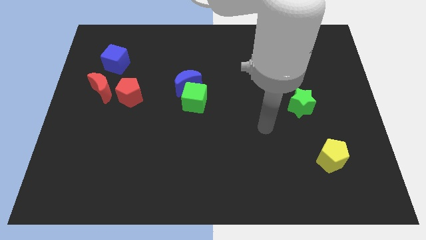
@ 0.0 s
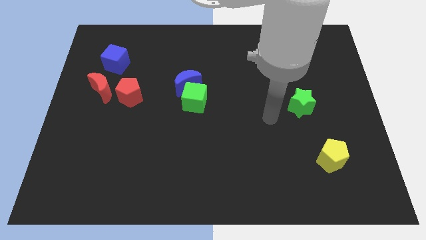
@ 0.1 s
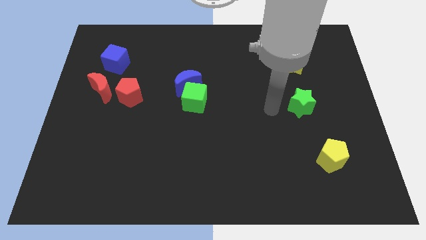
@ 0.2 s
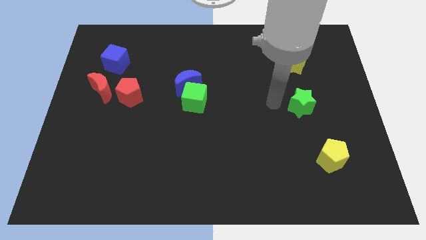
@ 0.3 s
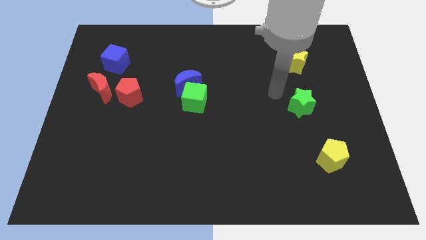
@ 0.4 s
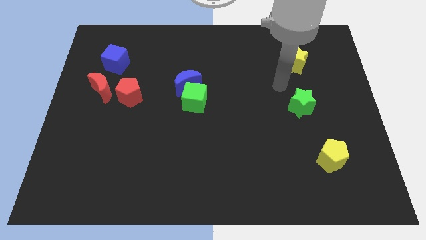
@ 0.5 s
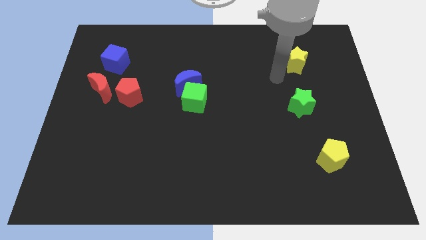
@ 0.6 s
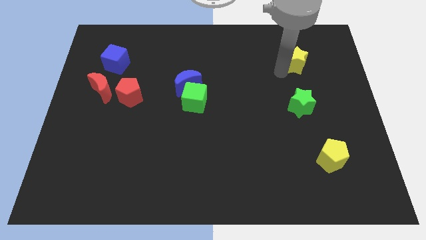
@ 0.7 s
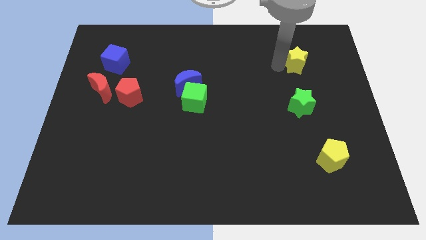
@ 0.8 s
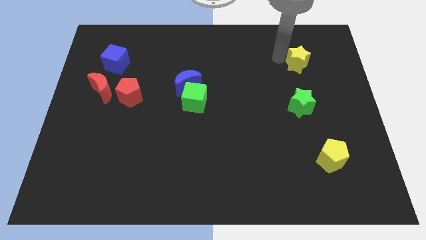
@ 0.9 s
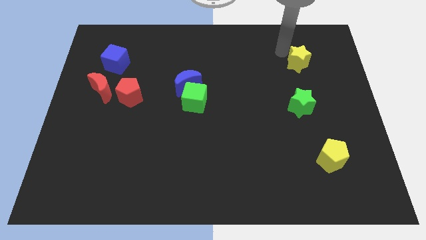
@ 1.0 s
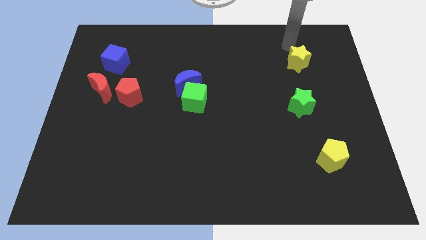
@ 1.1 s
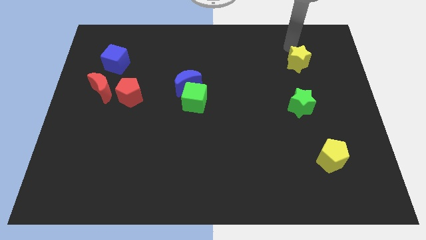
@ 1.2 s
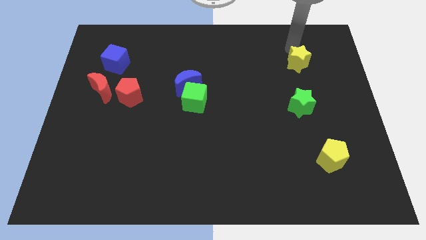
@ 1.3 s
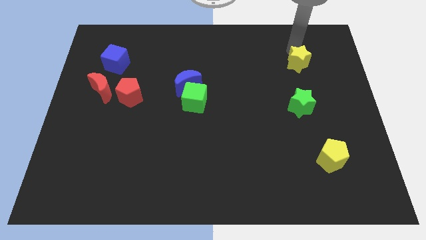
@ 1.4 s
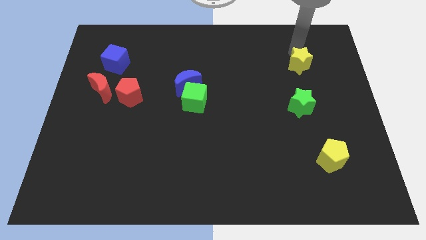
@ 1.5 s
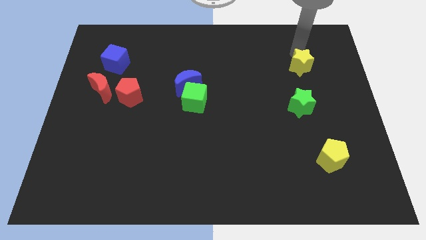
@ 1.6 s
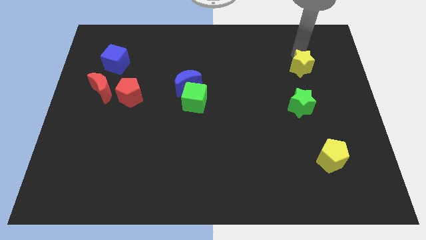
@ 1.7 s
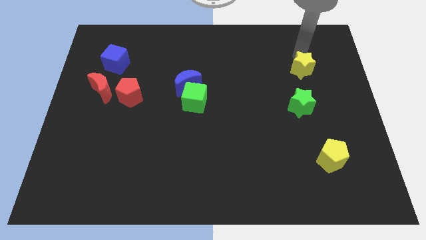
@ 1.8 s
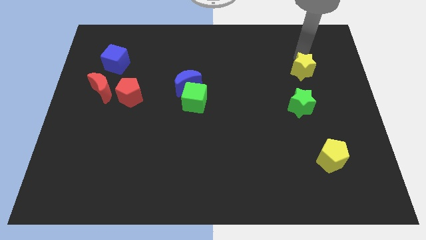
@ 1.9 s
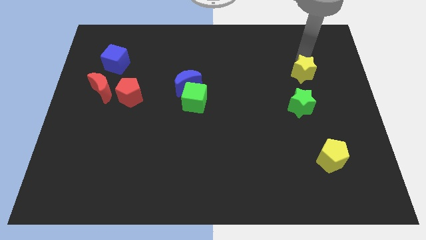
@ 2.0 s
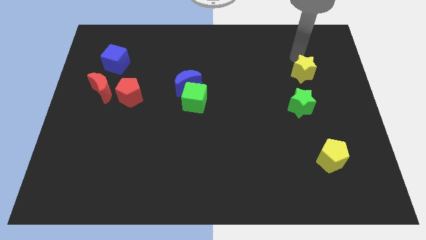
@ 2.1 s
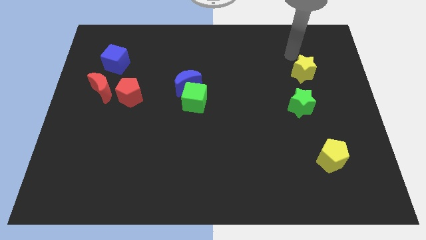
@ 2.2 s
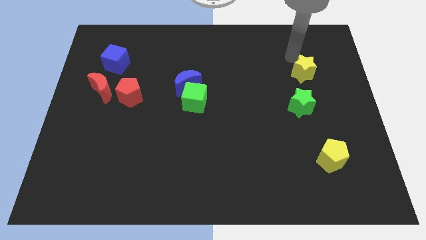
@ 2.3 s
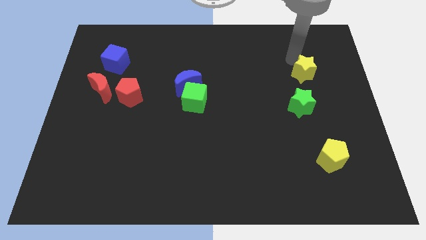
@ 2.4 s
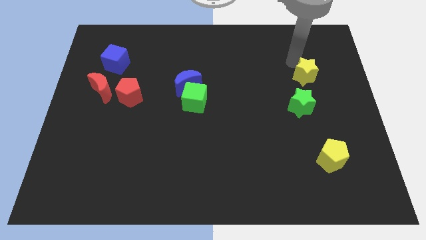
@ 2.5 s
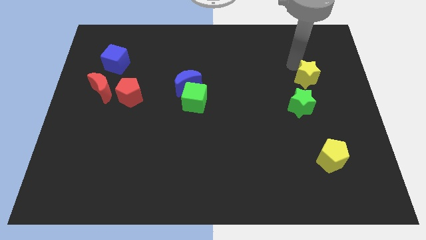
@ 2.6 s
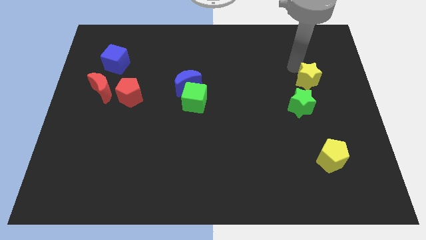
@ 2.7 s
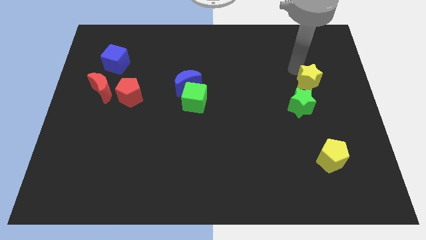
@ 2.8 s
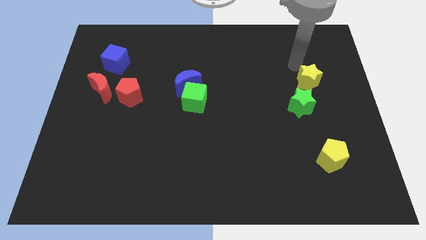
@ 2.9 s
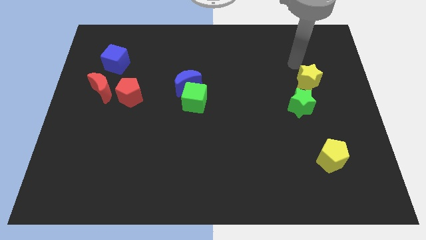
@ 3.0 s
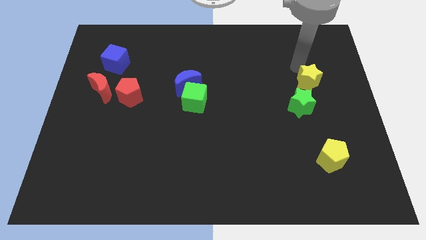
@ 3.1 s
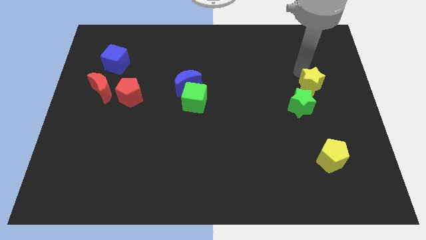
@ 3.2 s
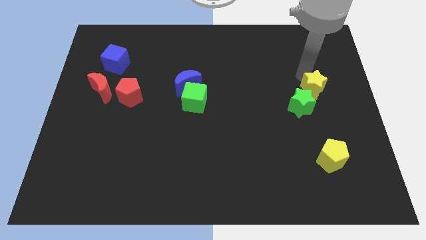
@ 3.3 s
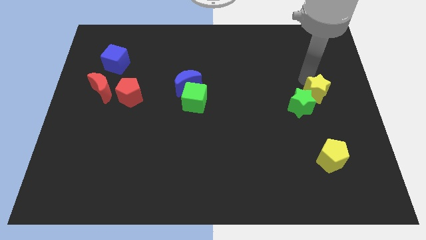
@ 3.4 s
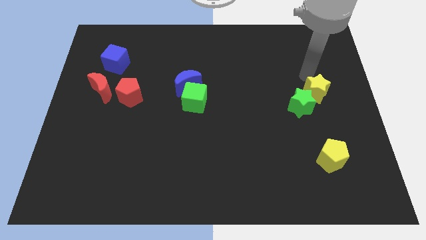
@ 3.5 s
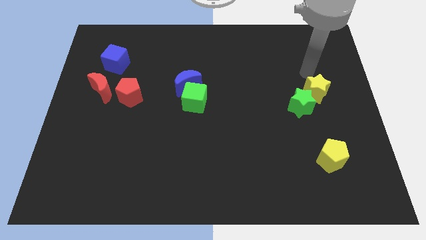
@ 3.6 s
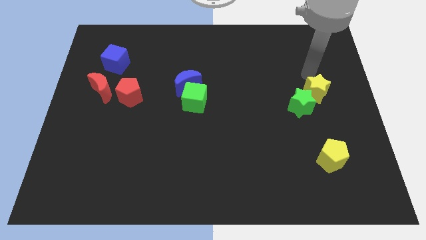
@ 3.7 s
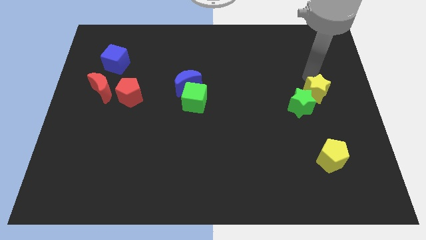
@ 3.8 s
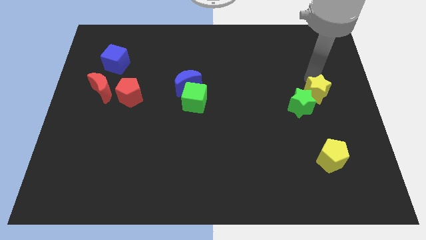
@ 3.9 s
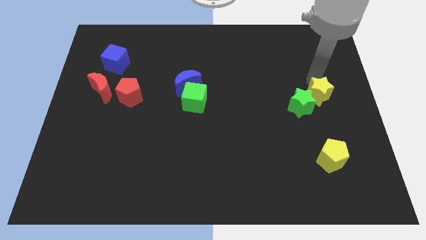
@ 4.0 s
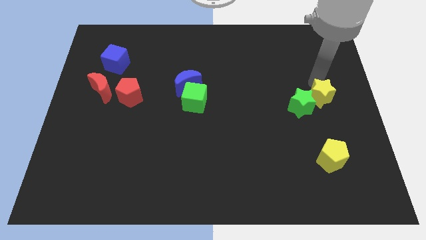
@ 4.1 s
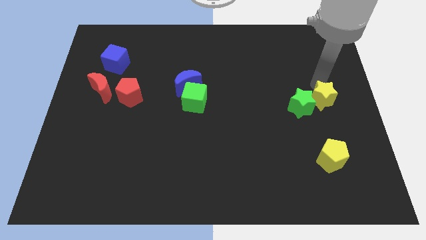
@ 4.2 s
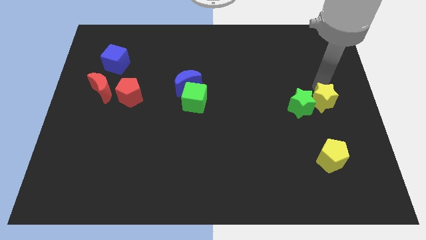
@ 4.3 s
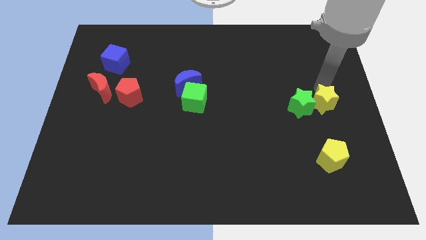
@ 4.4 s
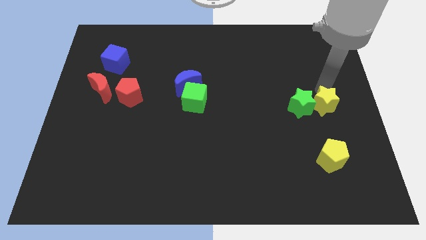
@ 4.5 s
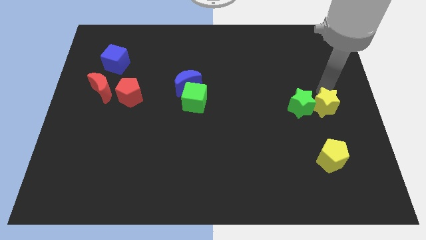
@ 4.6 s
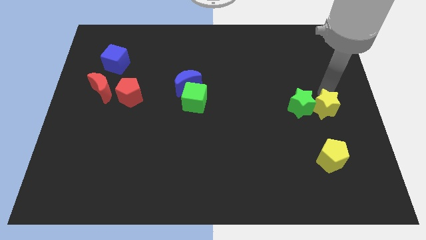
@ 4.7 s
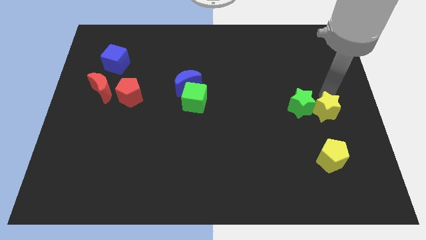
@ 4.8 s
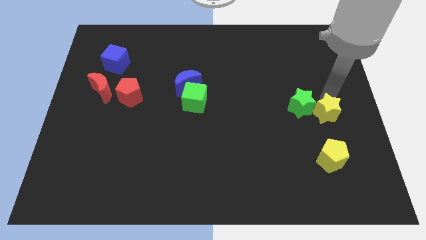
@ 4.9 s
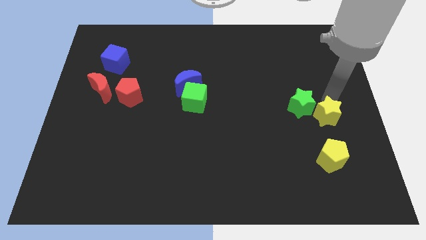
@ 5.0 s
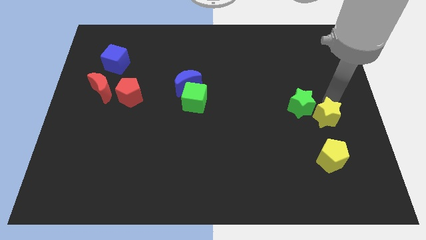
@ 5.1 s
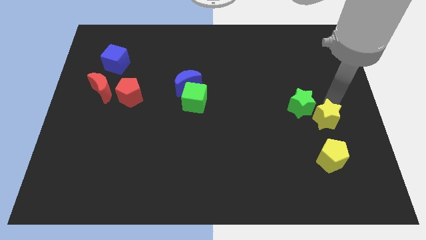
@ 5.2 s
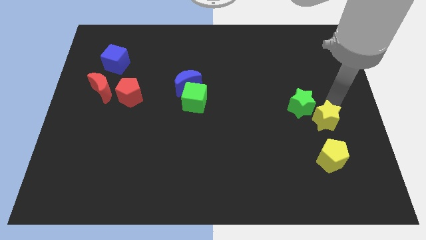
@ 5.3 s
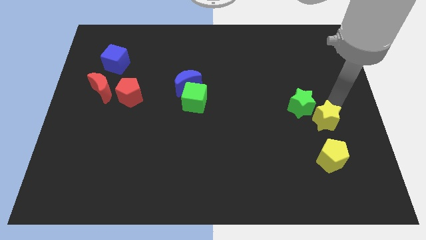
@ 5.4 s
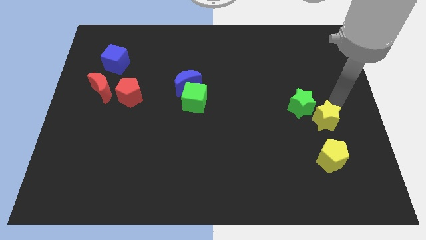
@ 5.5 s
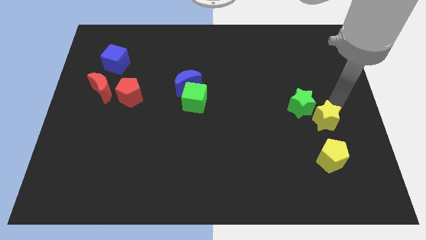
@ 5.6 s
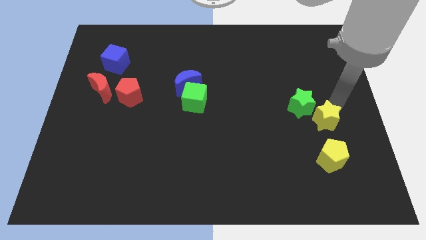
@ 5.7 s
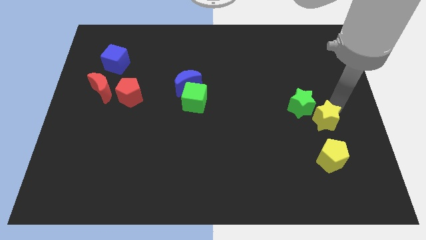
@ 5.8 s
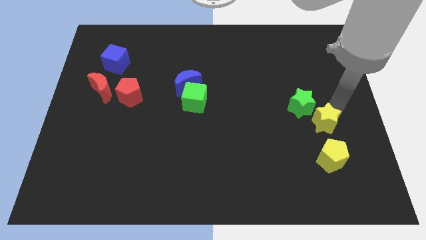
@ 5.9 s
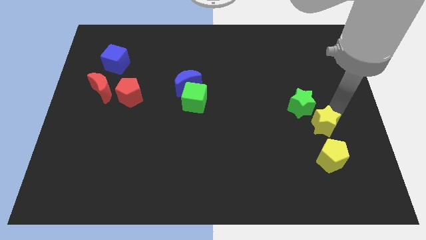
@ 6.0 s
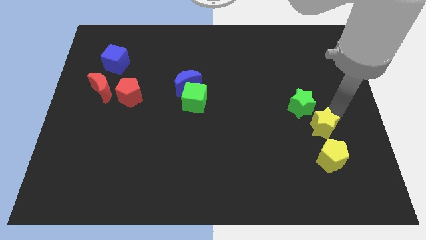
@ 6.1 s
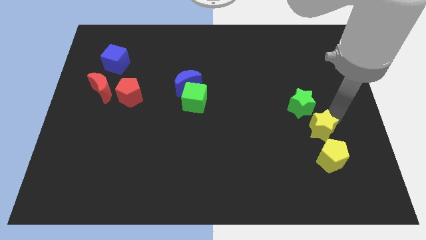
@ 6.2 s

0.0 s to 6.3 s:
push the yellow star down

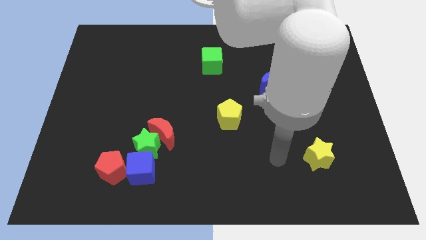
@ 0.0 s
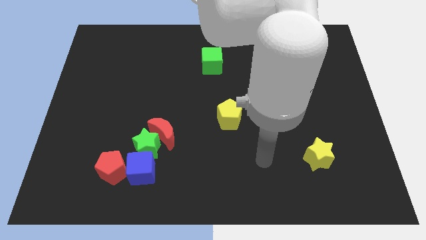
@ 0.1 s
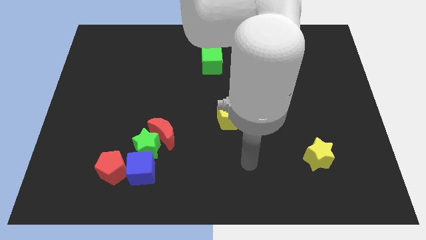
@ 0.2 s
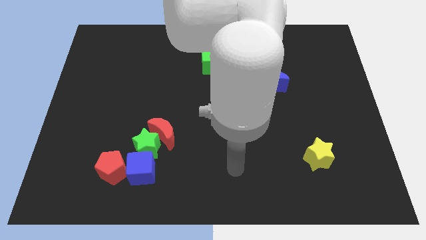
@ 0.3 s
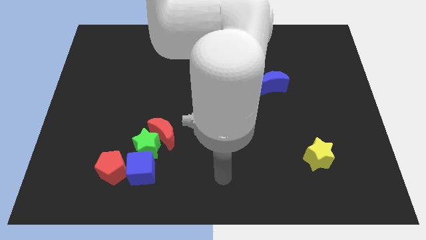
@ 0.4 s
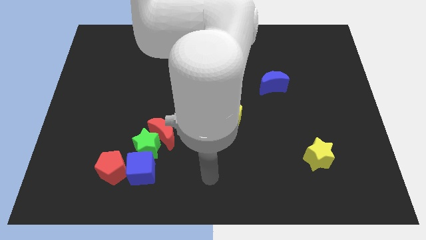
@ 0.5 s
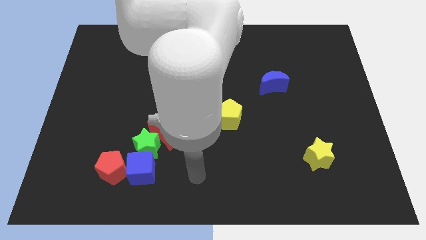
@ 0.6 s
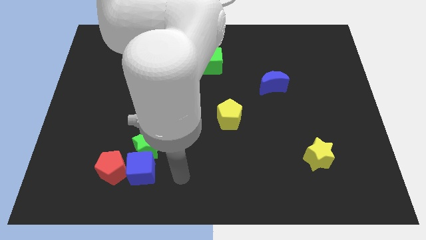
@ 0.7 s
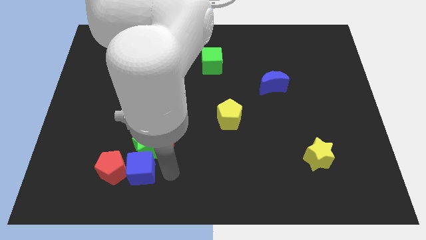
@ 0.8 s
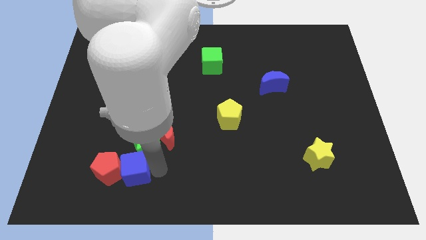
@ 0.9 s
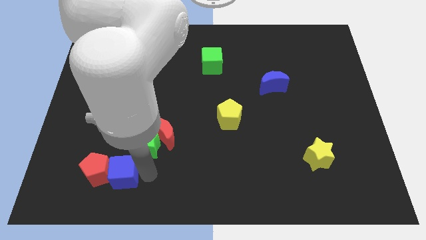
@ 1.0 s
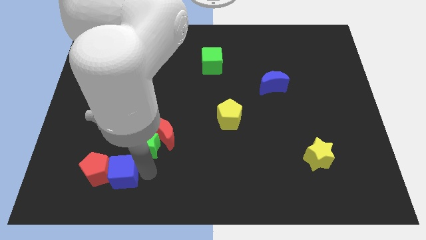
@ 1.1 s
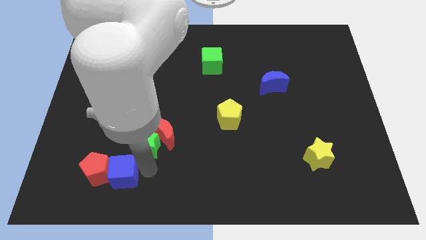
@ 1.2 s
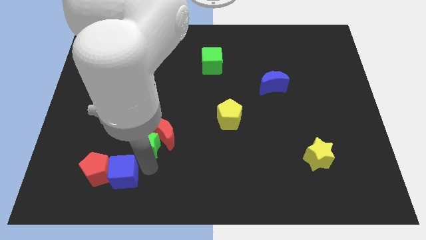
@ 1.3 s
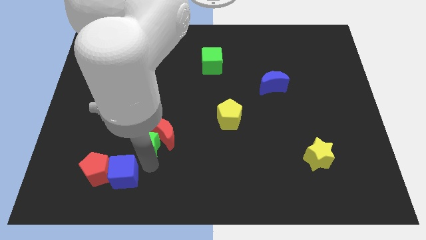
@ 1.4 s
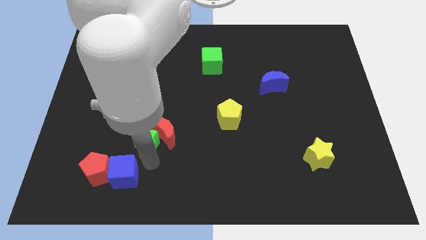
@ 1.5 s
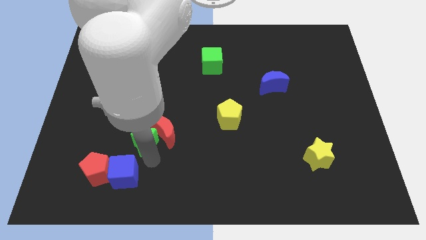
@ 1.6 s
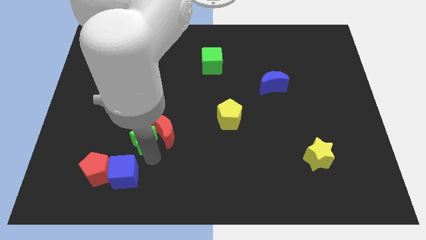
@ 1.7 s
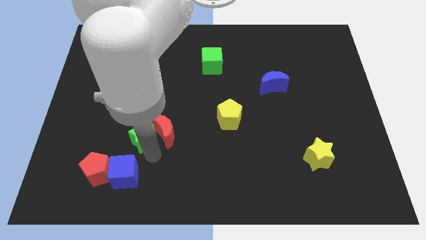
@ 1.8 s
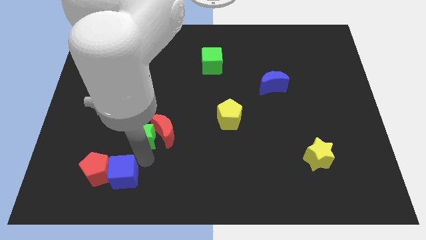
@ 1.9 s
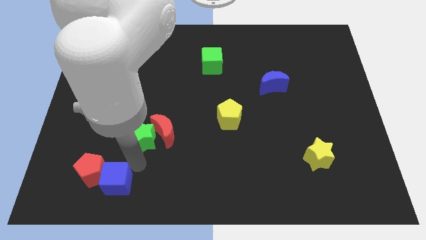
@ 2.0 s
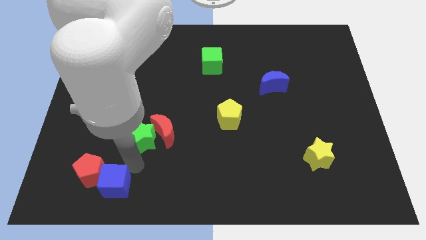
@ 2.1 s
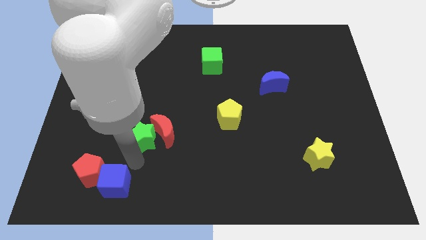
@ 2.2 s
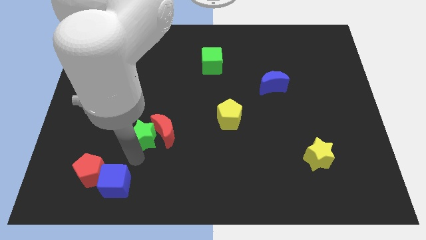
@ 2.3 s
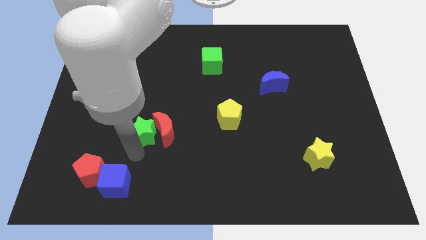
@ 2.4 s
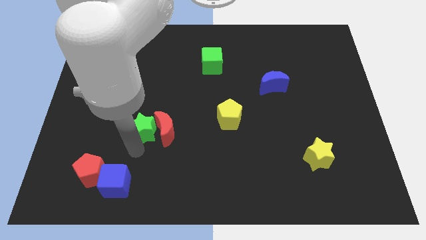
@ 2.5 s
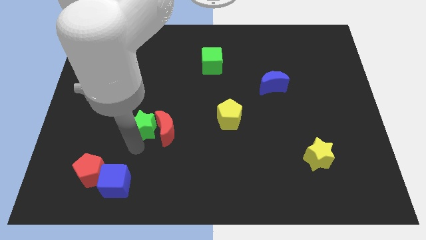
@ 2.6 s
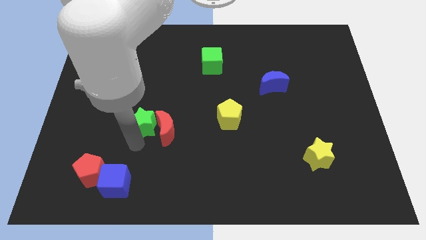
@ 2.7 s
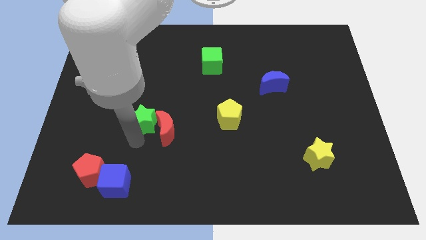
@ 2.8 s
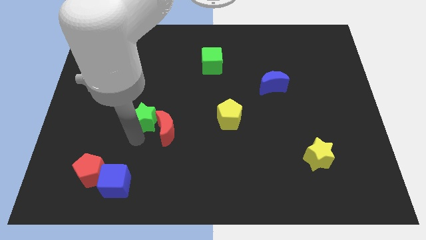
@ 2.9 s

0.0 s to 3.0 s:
slightly slide the green star up
